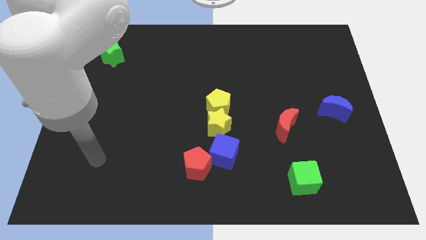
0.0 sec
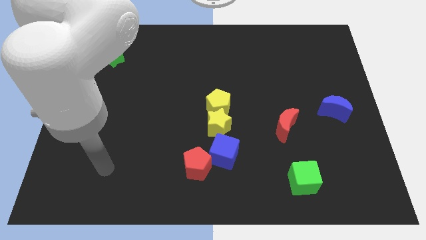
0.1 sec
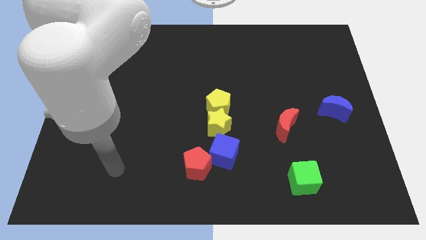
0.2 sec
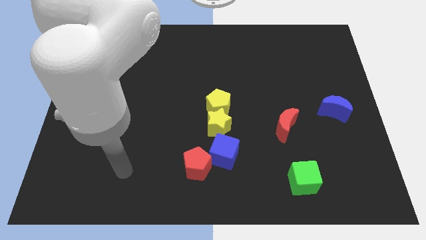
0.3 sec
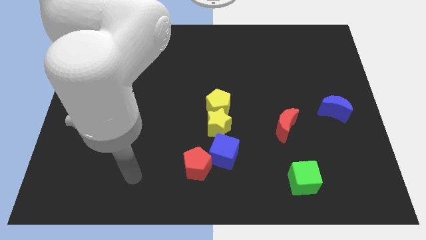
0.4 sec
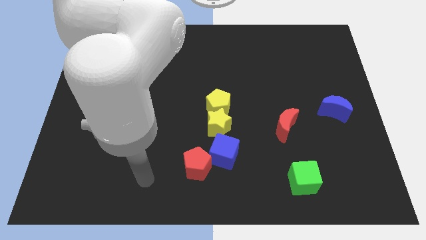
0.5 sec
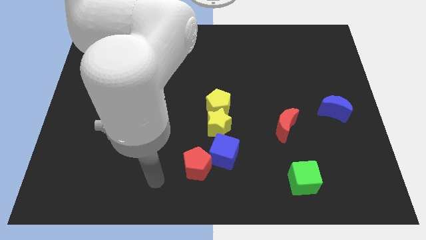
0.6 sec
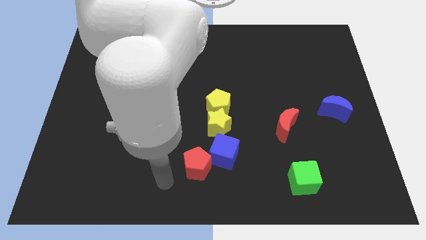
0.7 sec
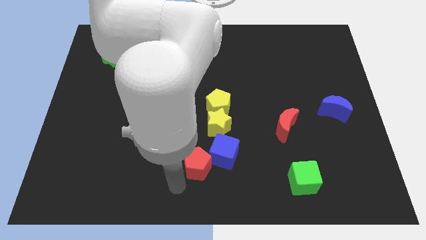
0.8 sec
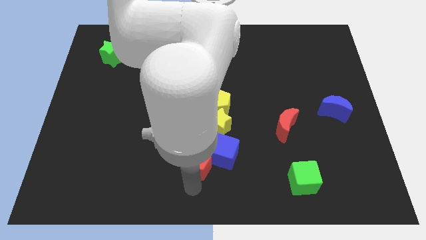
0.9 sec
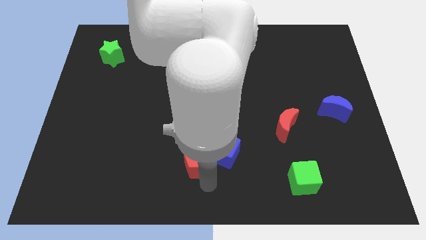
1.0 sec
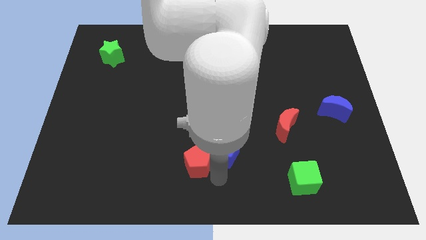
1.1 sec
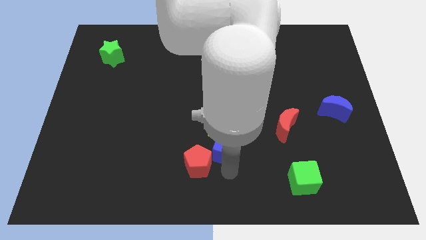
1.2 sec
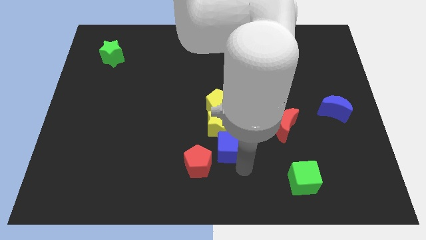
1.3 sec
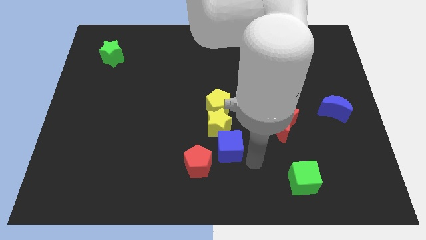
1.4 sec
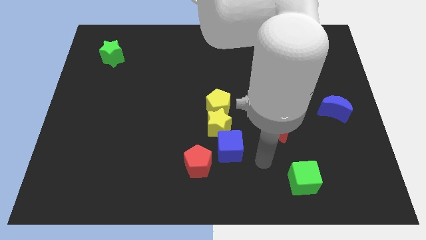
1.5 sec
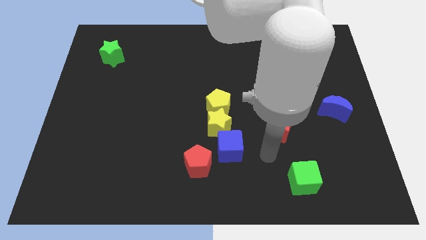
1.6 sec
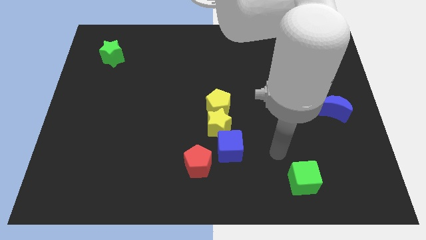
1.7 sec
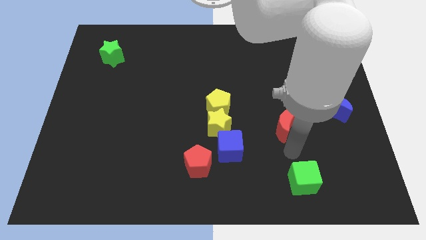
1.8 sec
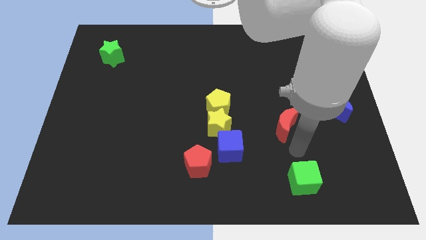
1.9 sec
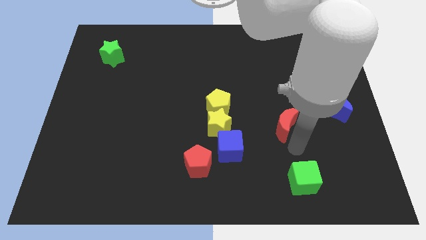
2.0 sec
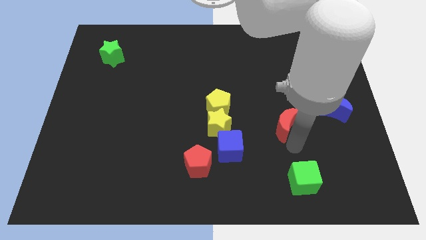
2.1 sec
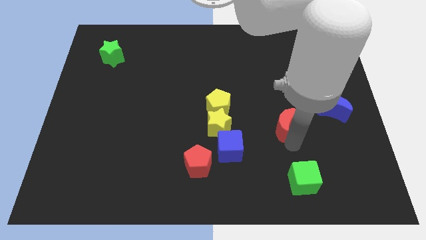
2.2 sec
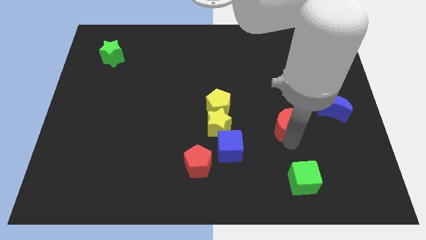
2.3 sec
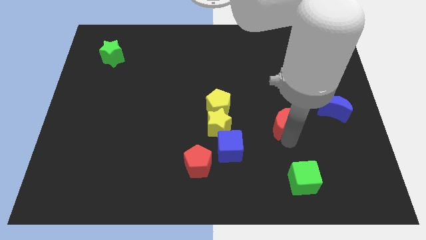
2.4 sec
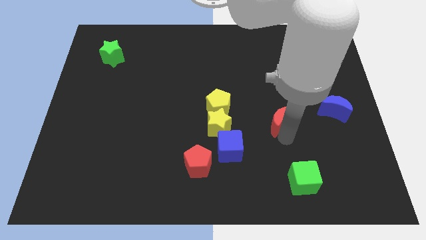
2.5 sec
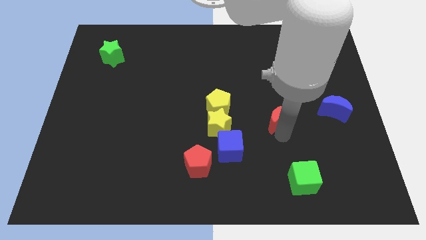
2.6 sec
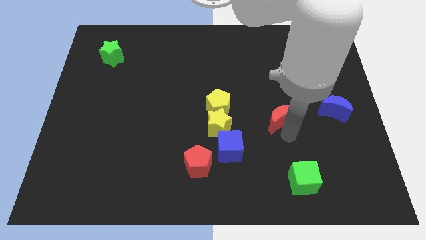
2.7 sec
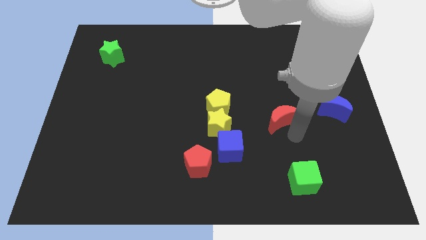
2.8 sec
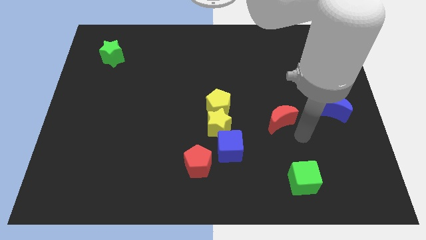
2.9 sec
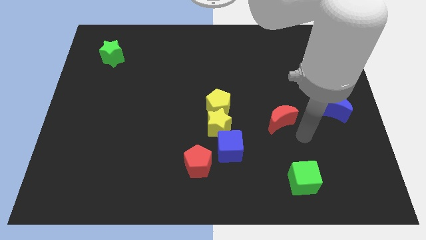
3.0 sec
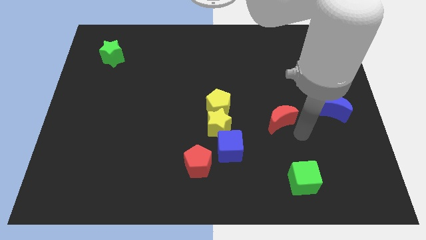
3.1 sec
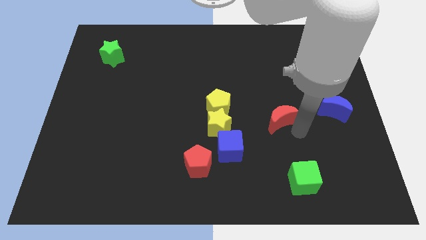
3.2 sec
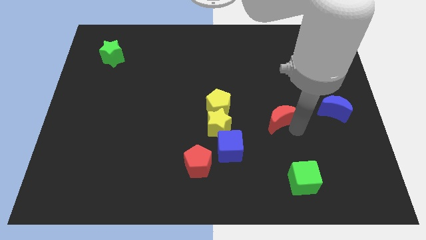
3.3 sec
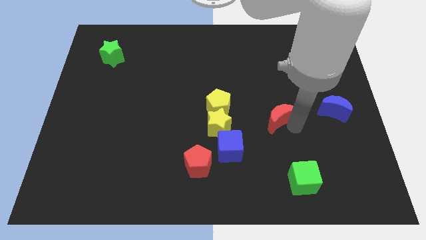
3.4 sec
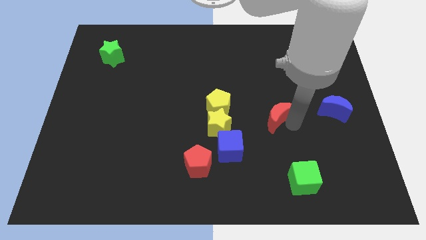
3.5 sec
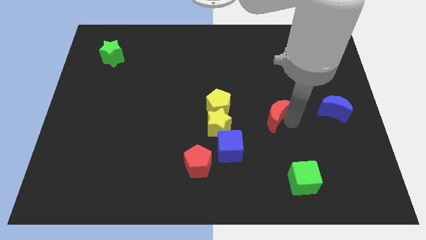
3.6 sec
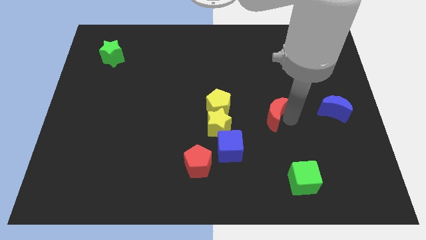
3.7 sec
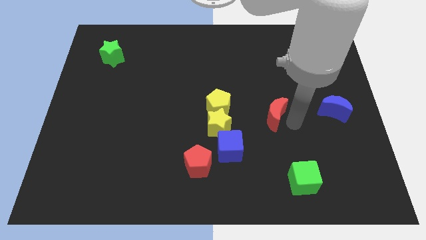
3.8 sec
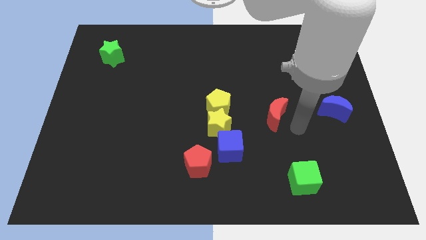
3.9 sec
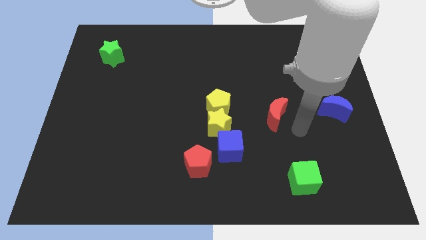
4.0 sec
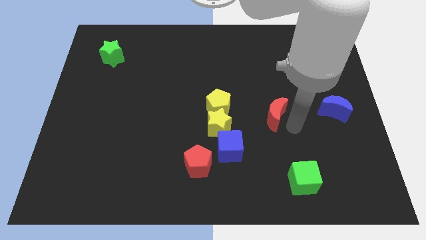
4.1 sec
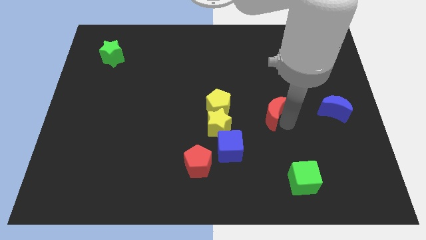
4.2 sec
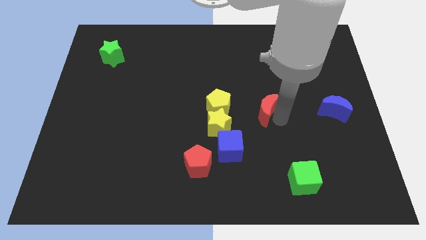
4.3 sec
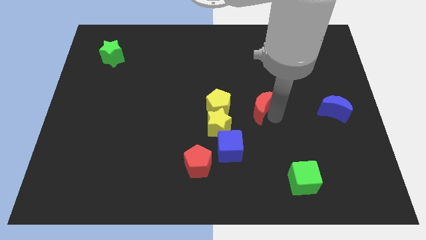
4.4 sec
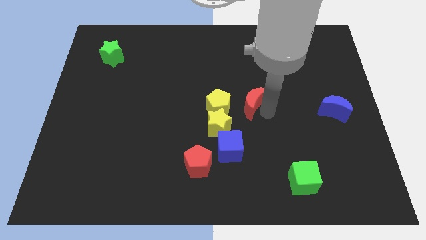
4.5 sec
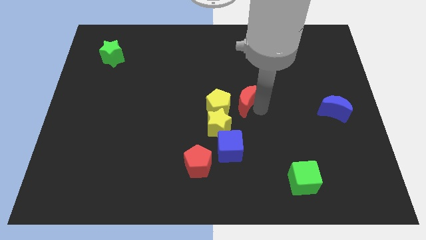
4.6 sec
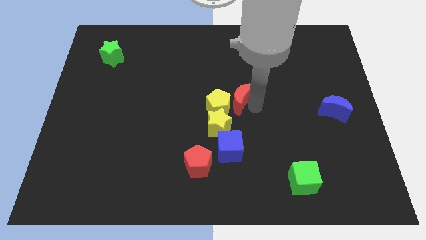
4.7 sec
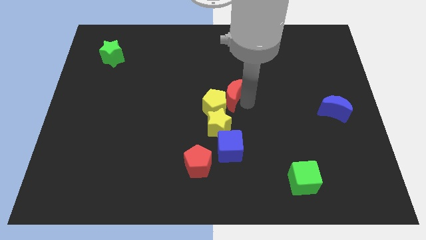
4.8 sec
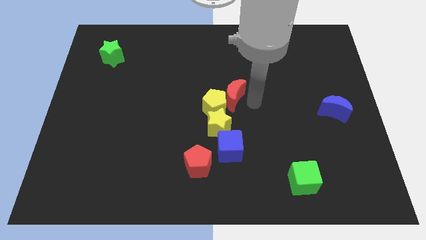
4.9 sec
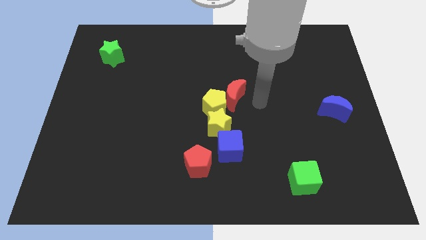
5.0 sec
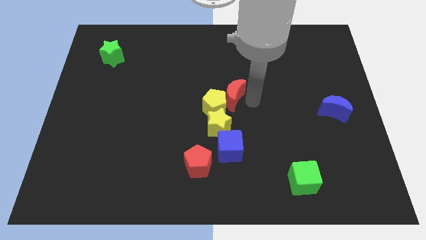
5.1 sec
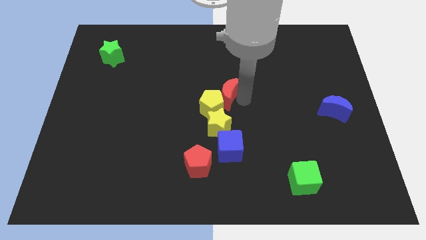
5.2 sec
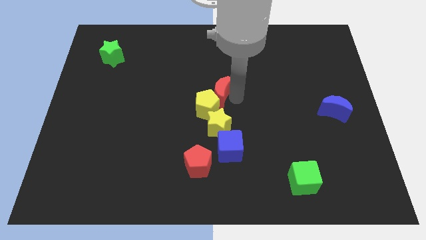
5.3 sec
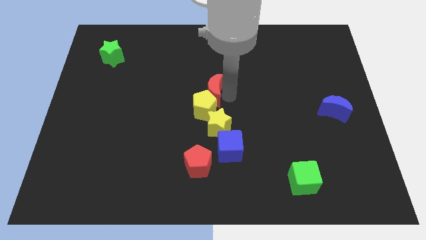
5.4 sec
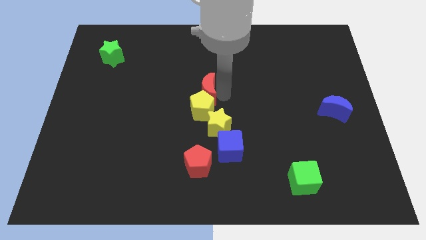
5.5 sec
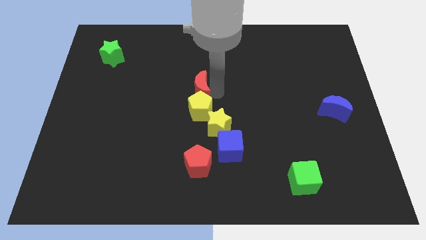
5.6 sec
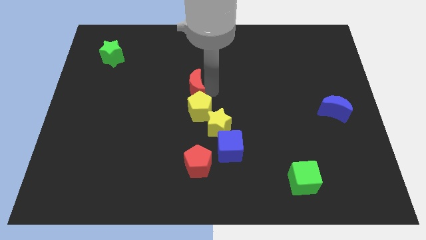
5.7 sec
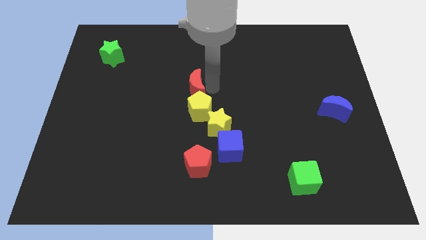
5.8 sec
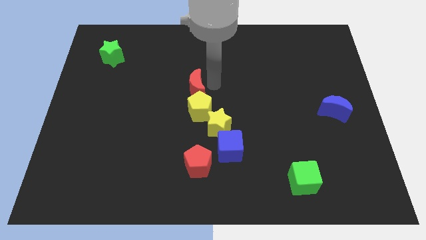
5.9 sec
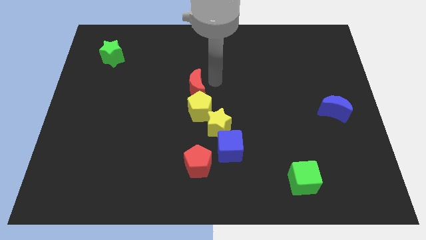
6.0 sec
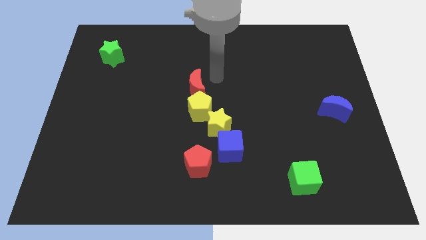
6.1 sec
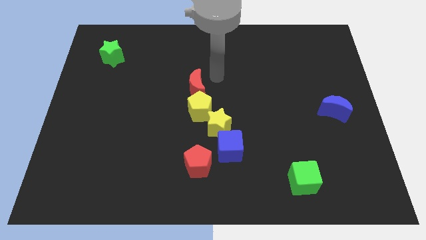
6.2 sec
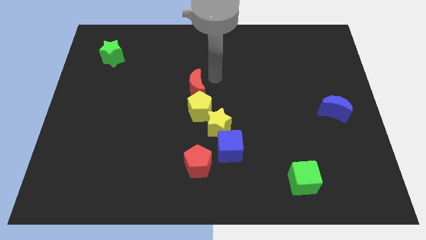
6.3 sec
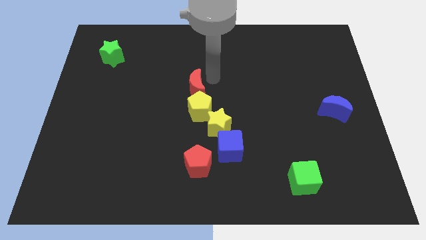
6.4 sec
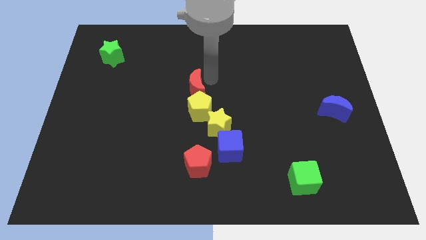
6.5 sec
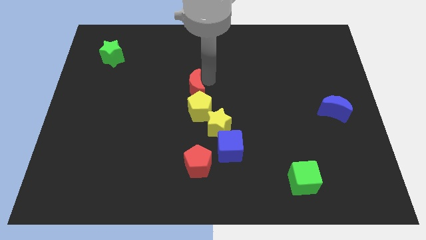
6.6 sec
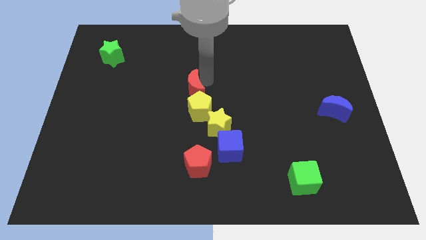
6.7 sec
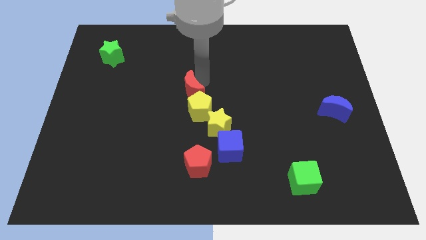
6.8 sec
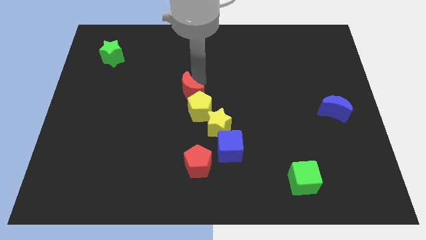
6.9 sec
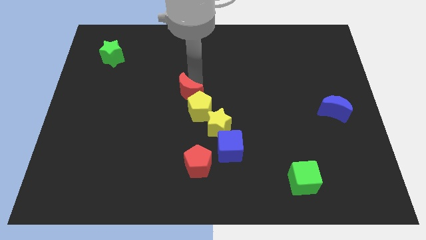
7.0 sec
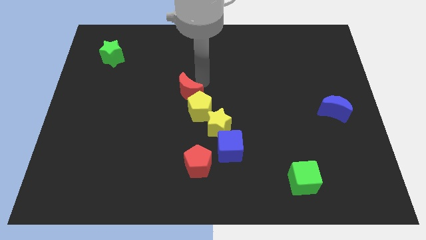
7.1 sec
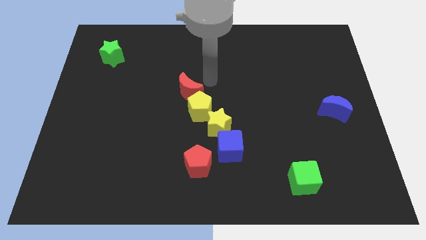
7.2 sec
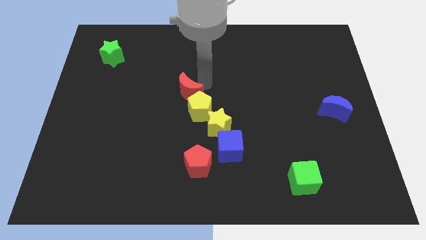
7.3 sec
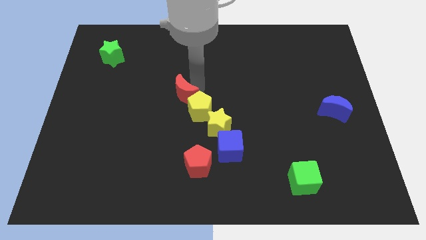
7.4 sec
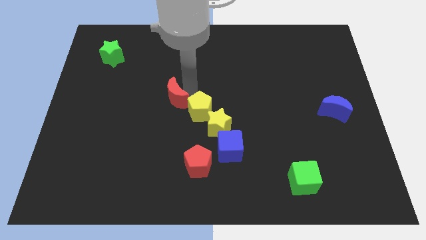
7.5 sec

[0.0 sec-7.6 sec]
slide the red moon to the left of the yellow pentagon
